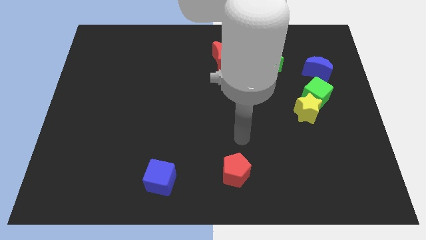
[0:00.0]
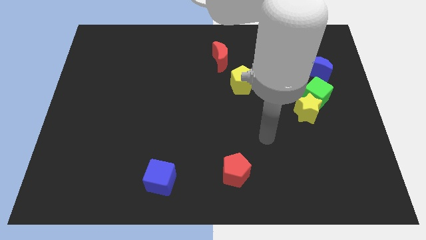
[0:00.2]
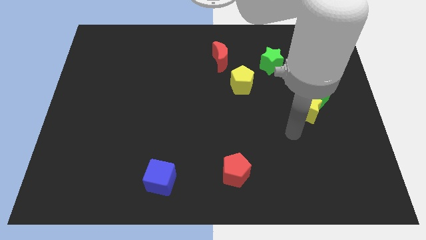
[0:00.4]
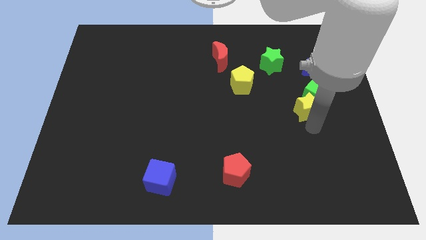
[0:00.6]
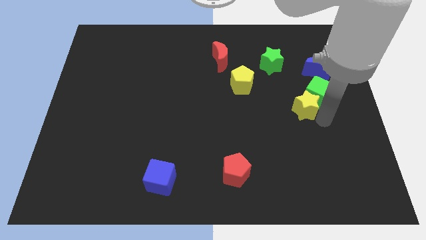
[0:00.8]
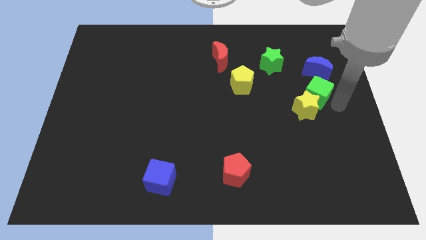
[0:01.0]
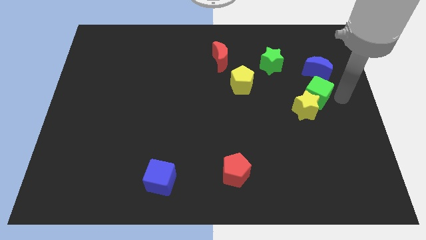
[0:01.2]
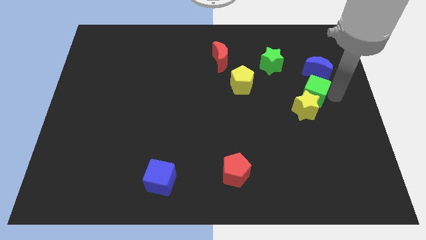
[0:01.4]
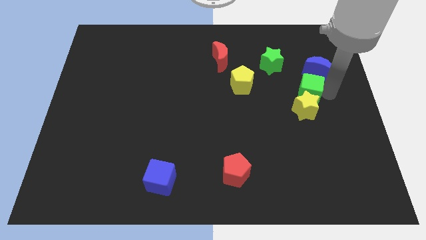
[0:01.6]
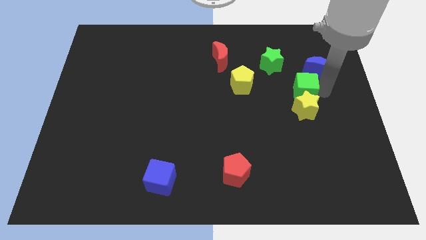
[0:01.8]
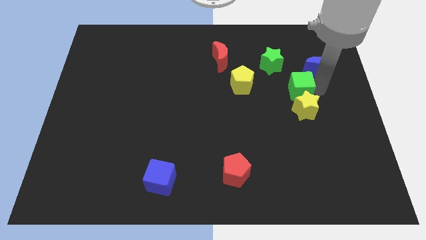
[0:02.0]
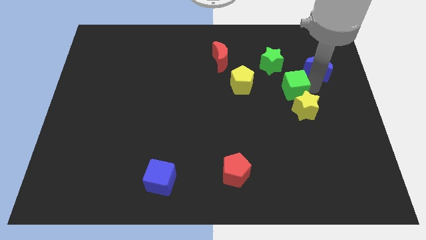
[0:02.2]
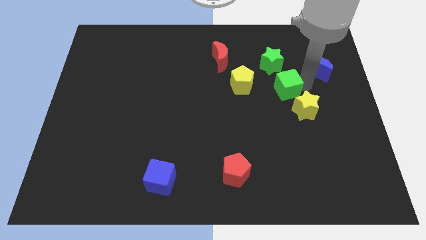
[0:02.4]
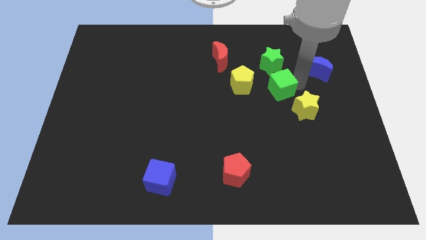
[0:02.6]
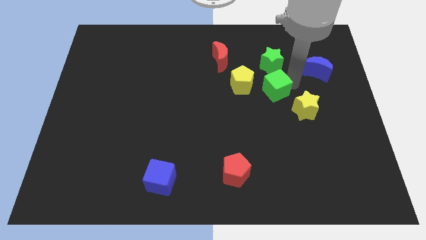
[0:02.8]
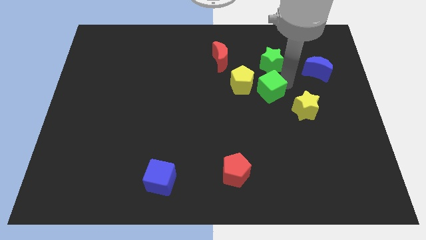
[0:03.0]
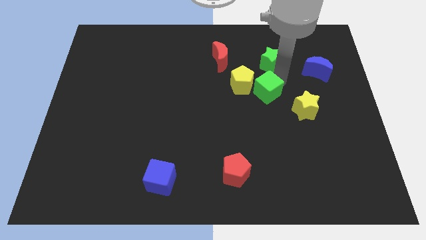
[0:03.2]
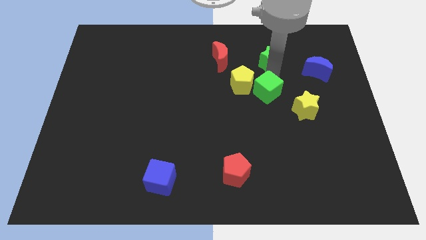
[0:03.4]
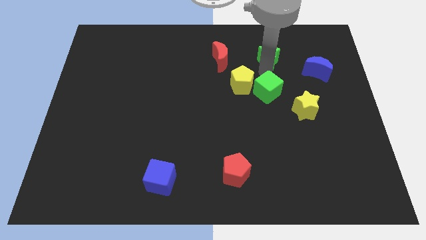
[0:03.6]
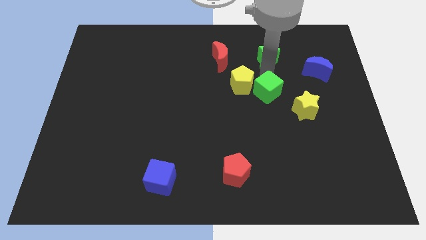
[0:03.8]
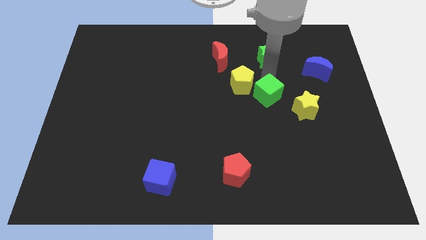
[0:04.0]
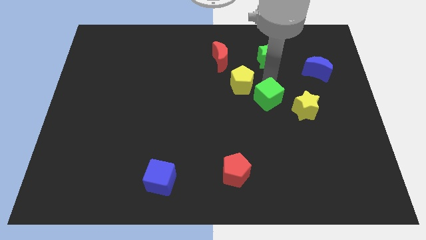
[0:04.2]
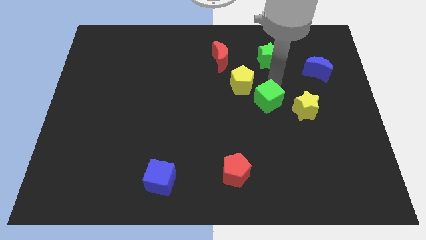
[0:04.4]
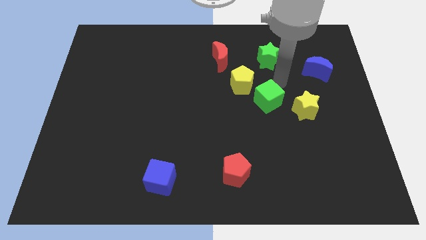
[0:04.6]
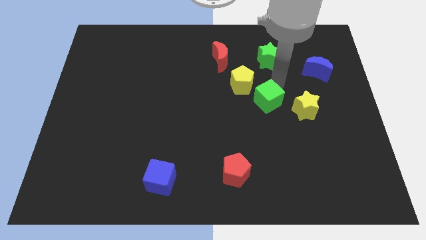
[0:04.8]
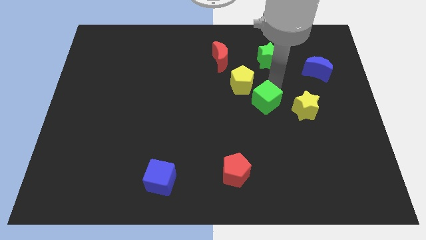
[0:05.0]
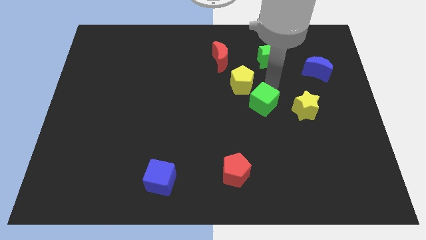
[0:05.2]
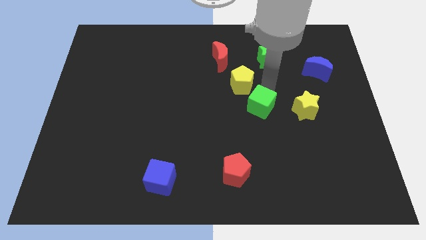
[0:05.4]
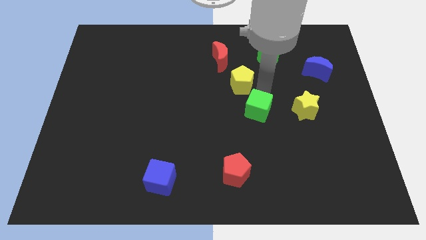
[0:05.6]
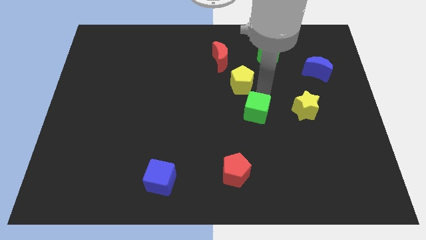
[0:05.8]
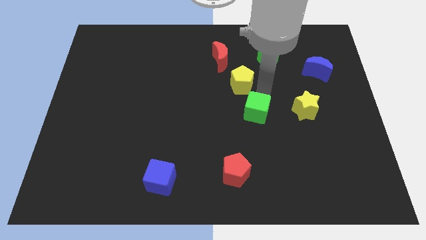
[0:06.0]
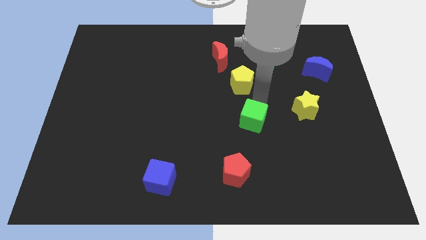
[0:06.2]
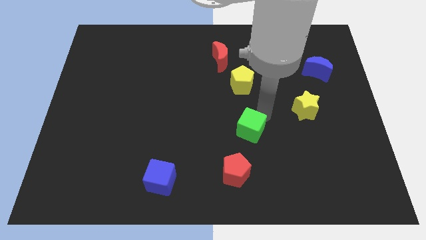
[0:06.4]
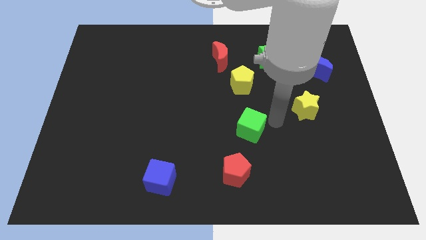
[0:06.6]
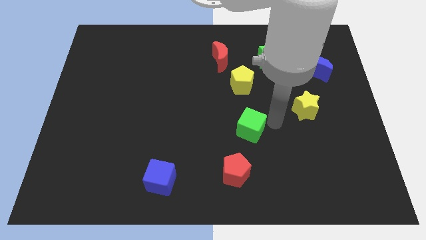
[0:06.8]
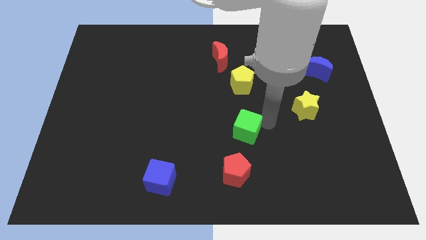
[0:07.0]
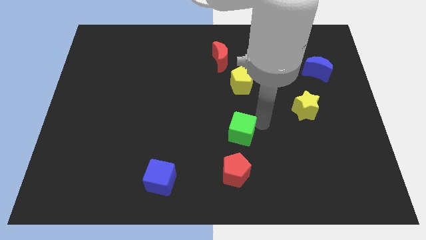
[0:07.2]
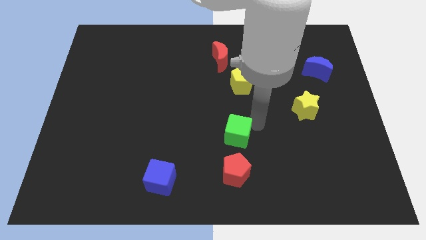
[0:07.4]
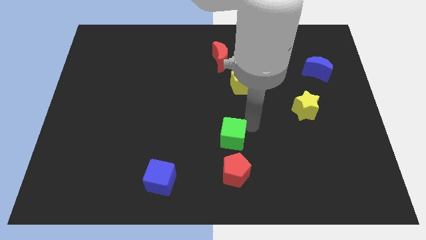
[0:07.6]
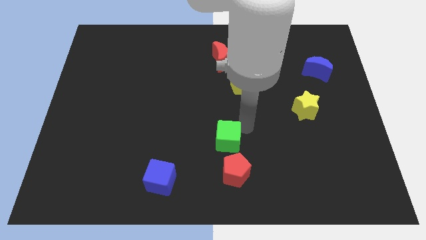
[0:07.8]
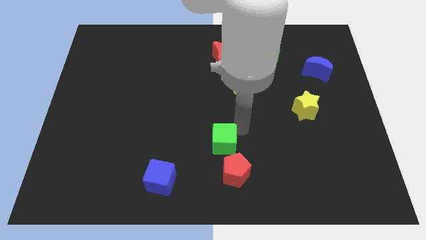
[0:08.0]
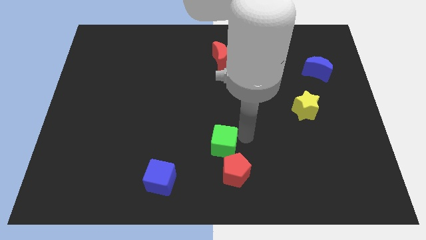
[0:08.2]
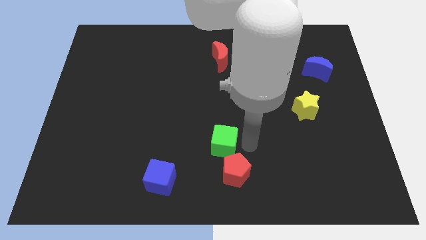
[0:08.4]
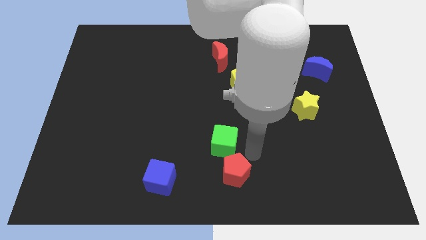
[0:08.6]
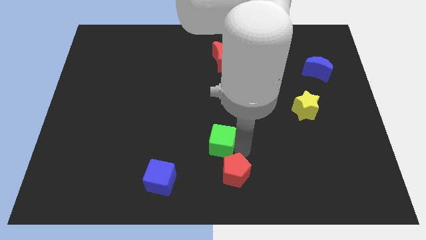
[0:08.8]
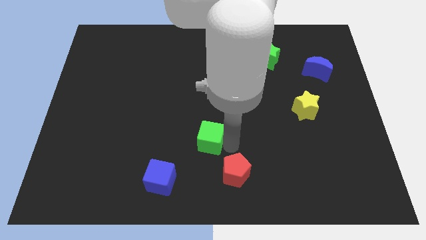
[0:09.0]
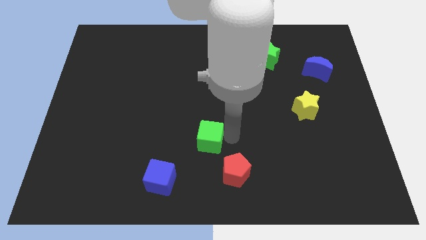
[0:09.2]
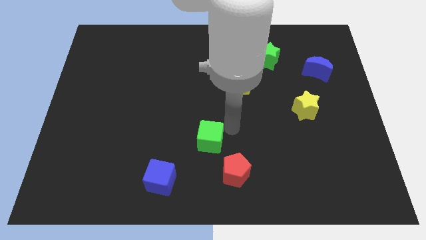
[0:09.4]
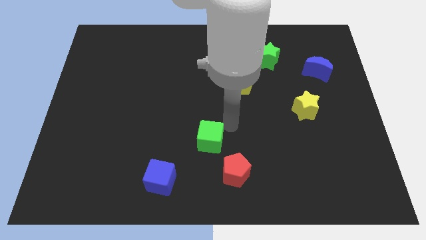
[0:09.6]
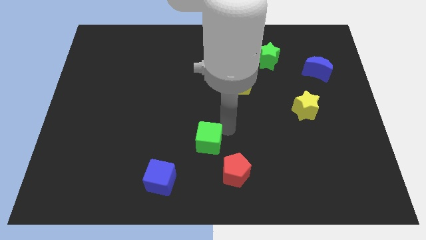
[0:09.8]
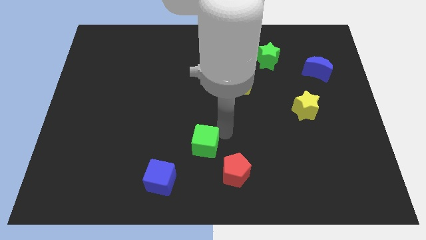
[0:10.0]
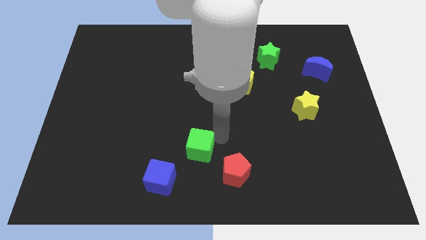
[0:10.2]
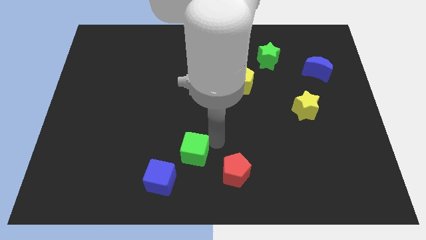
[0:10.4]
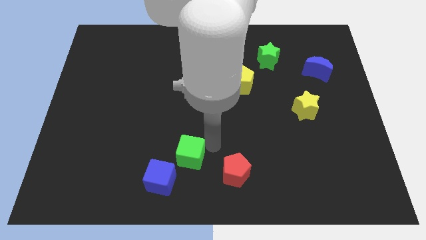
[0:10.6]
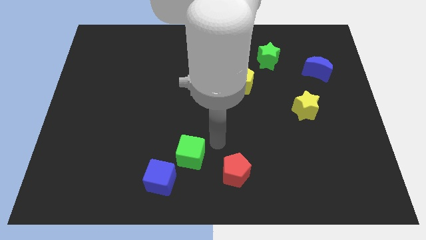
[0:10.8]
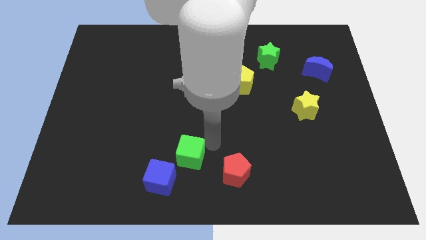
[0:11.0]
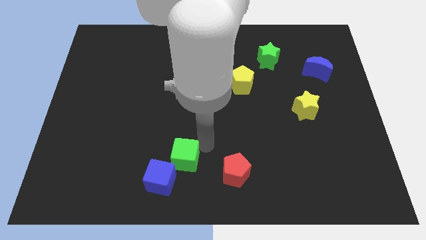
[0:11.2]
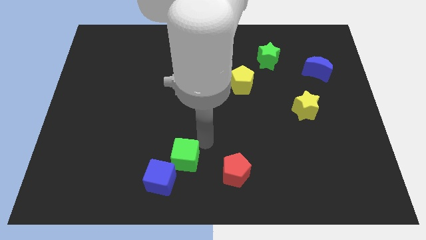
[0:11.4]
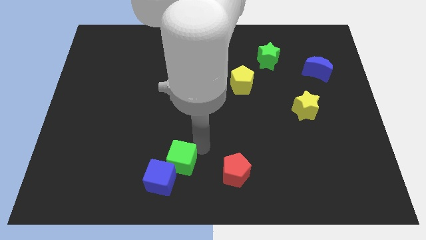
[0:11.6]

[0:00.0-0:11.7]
push the green cube to the blue cube

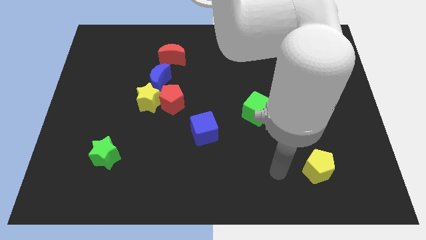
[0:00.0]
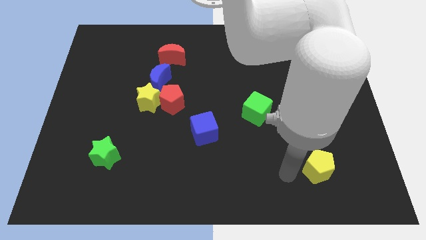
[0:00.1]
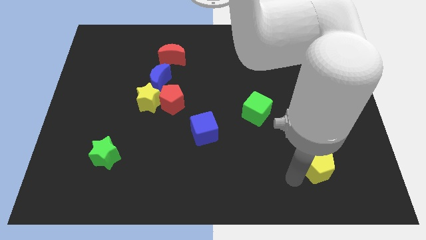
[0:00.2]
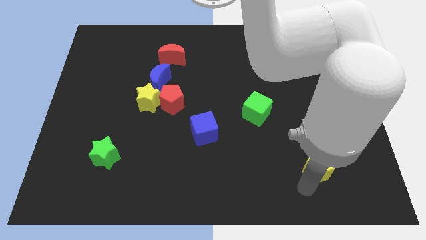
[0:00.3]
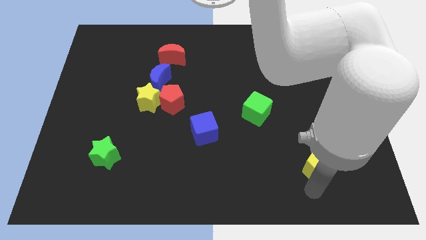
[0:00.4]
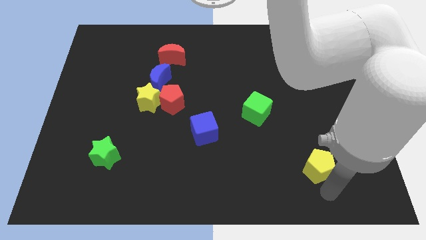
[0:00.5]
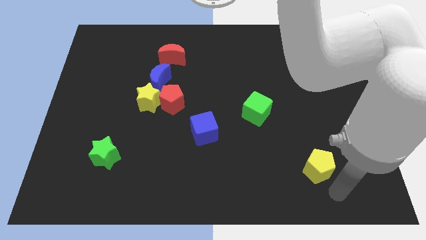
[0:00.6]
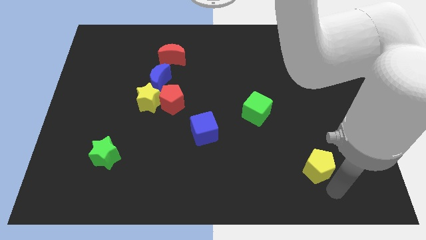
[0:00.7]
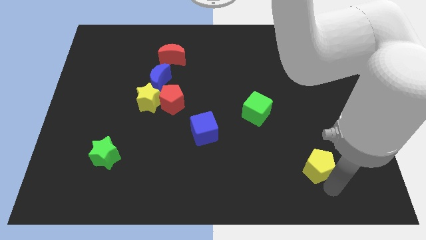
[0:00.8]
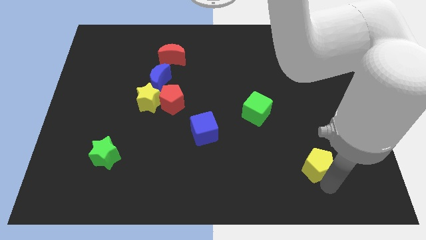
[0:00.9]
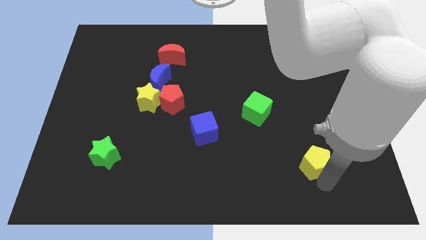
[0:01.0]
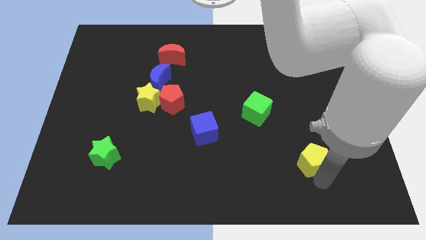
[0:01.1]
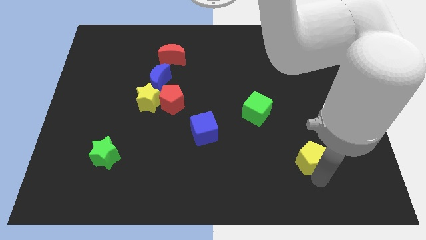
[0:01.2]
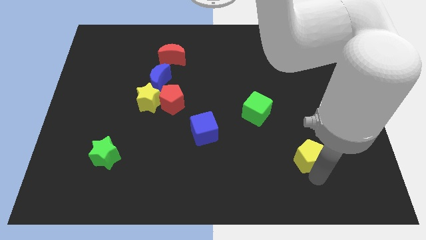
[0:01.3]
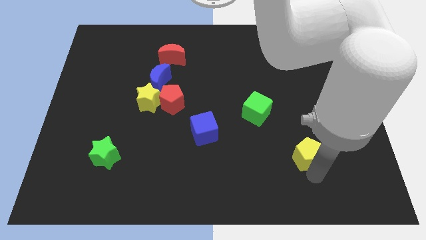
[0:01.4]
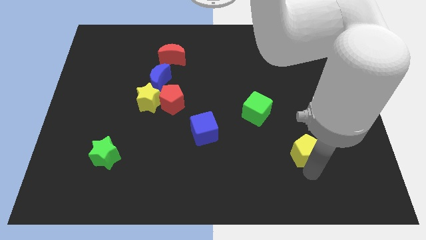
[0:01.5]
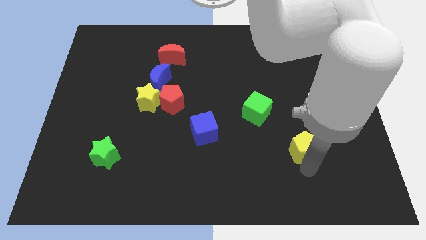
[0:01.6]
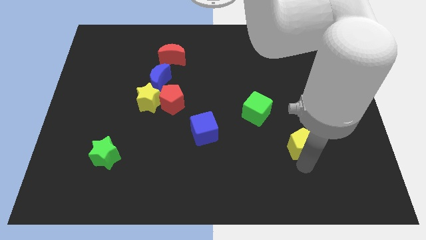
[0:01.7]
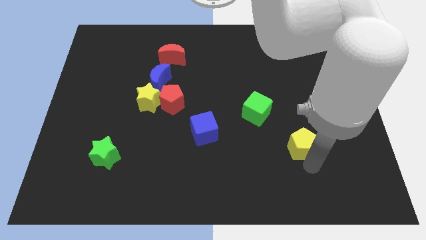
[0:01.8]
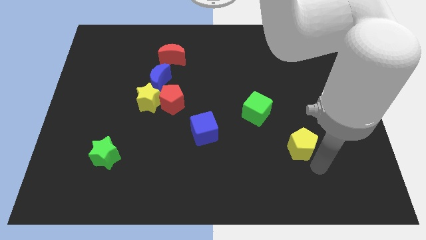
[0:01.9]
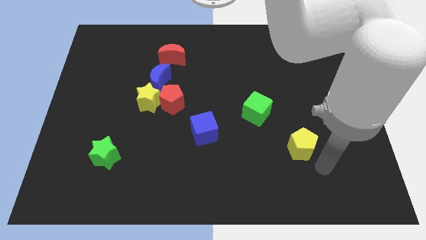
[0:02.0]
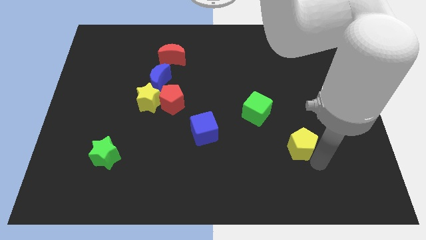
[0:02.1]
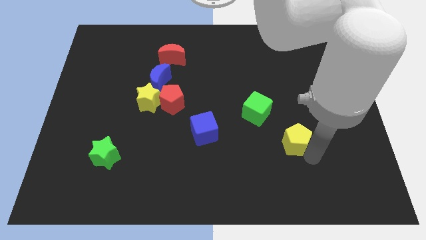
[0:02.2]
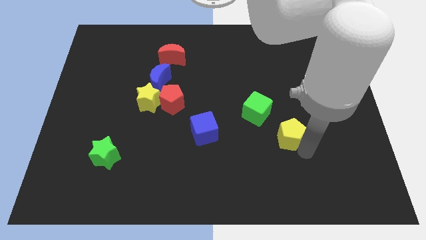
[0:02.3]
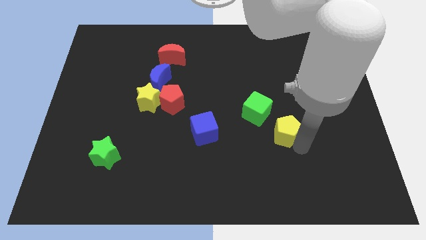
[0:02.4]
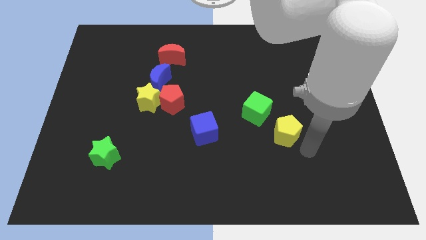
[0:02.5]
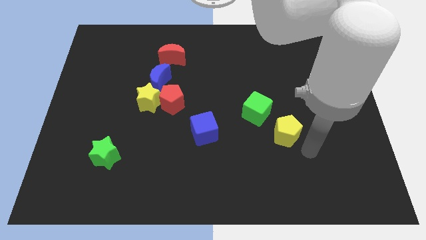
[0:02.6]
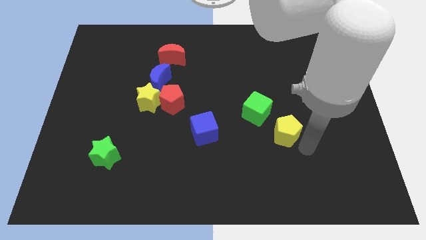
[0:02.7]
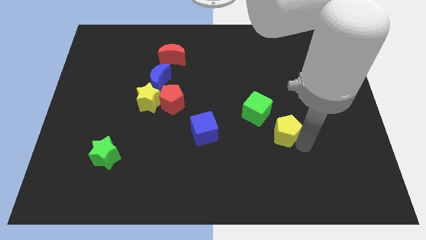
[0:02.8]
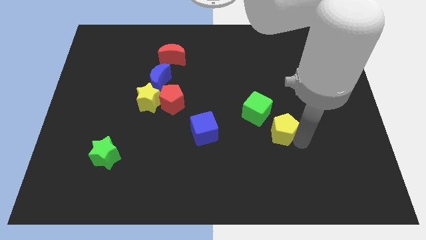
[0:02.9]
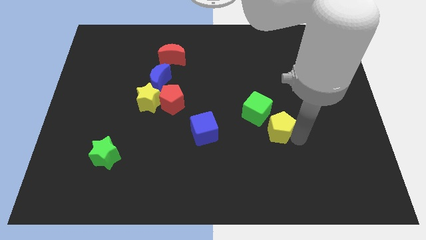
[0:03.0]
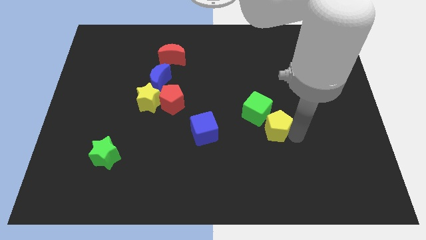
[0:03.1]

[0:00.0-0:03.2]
slide the yellow pentagon to the green cube
